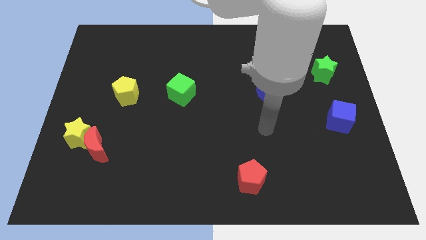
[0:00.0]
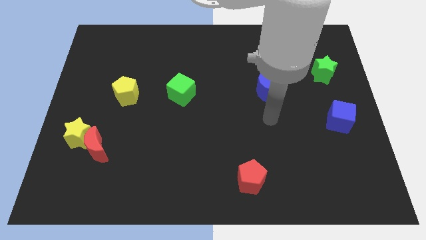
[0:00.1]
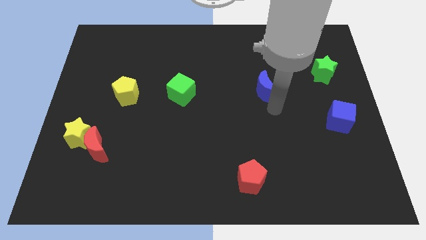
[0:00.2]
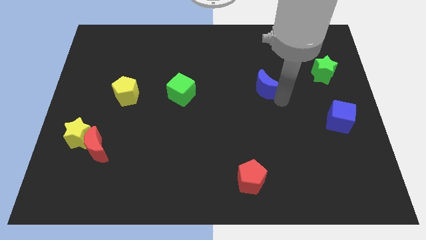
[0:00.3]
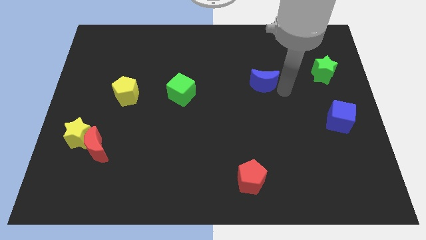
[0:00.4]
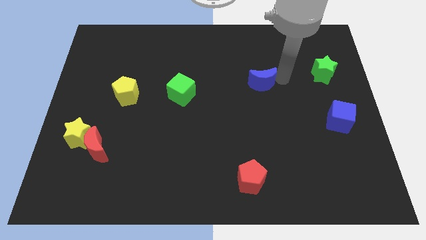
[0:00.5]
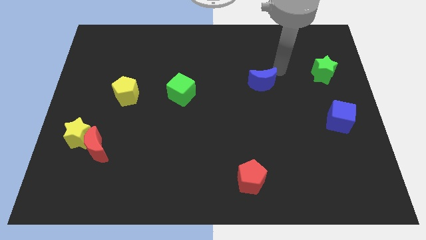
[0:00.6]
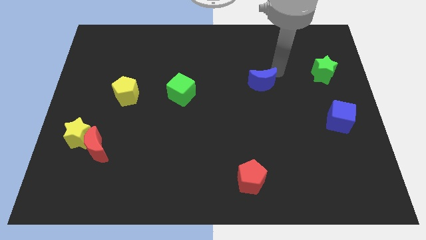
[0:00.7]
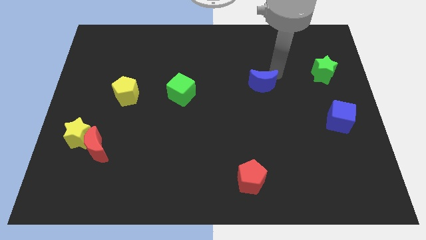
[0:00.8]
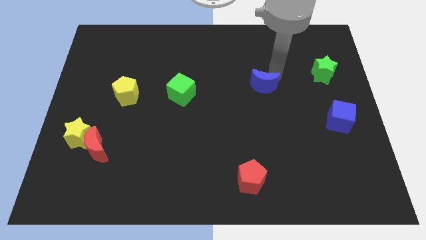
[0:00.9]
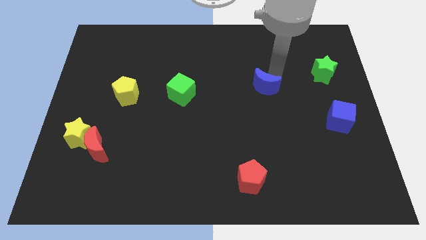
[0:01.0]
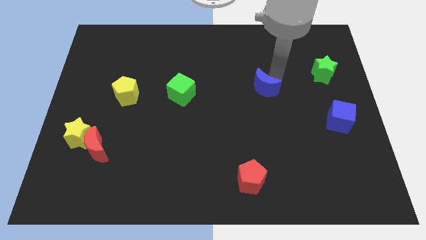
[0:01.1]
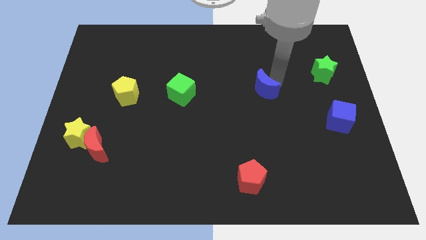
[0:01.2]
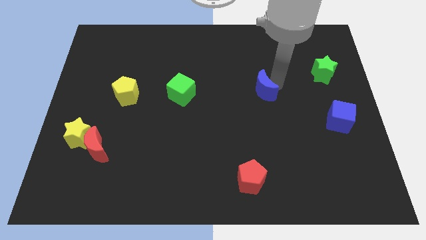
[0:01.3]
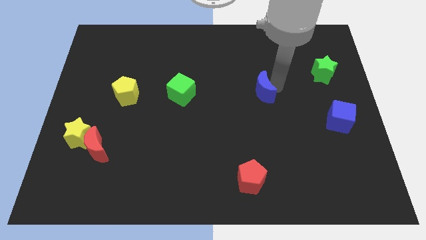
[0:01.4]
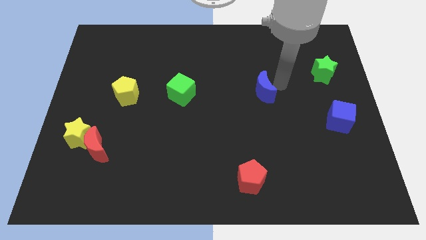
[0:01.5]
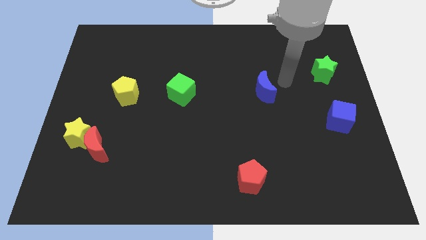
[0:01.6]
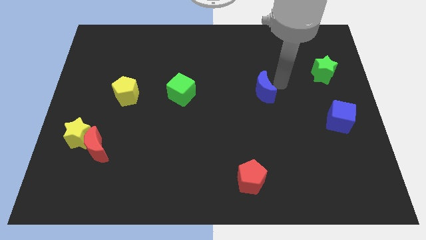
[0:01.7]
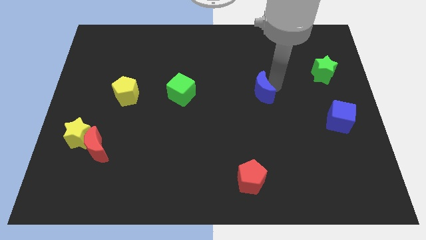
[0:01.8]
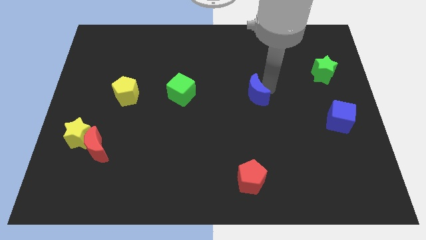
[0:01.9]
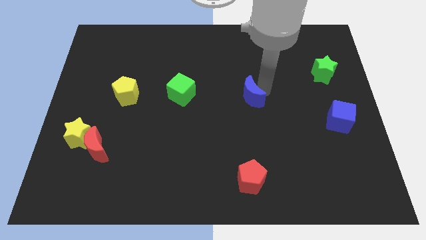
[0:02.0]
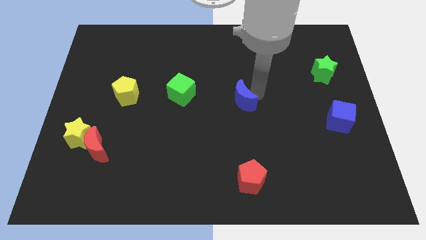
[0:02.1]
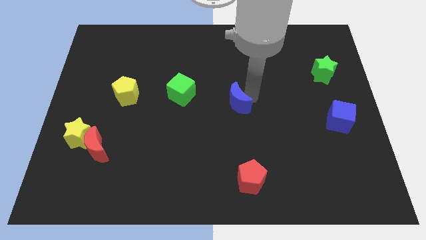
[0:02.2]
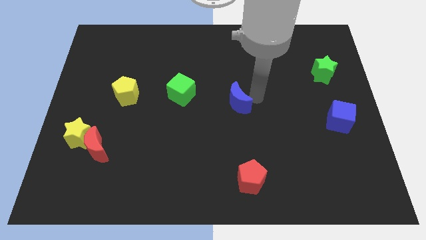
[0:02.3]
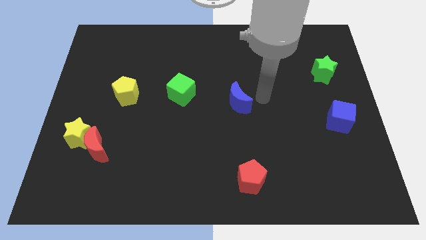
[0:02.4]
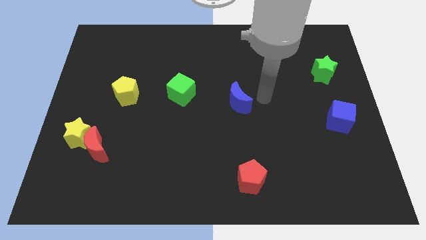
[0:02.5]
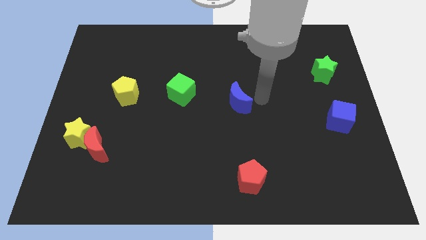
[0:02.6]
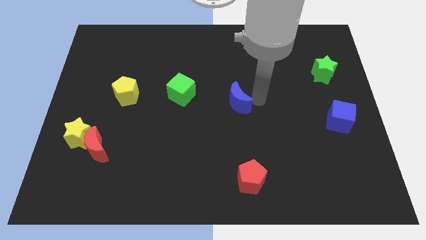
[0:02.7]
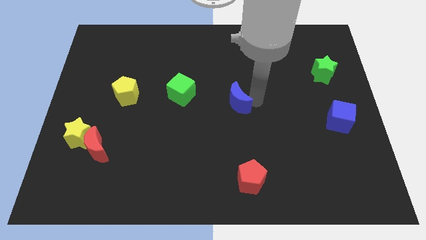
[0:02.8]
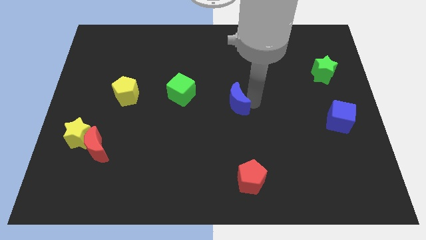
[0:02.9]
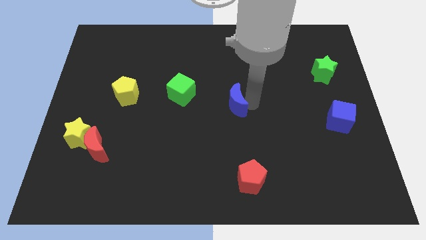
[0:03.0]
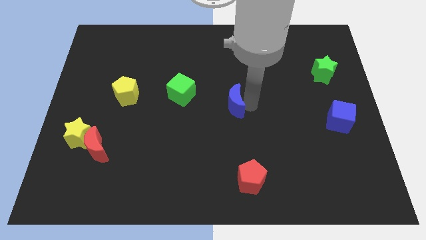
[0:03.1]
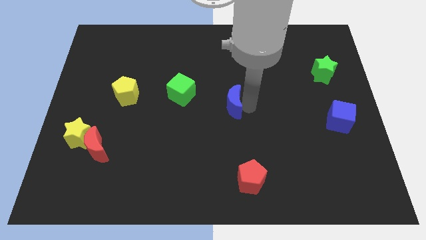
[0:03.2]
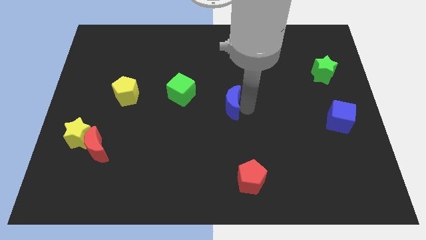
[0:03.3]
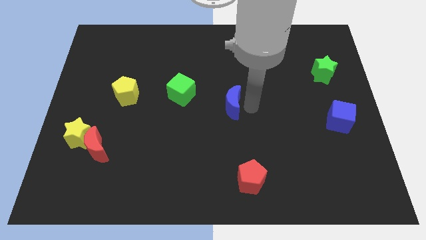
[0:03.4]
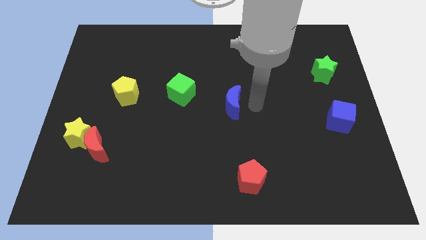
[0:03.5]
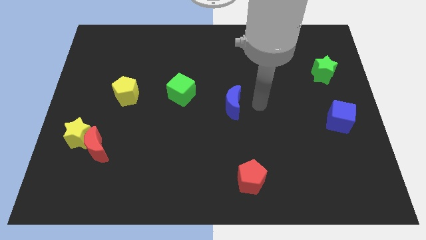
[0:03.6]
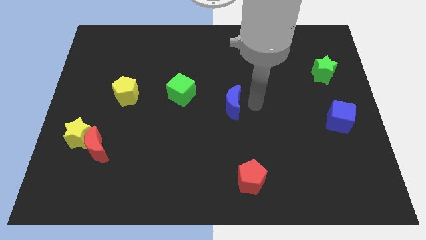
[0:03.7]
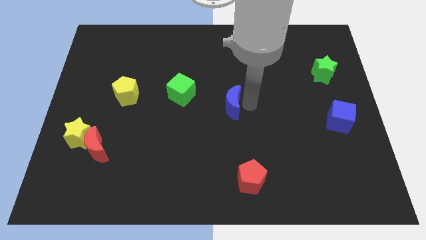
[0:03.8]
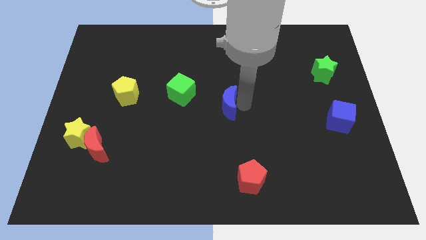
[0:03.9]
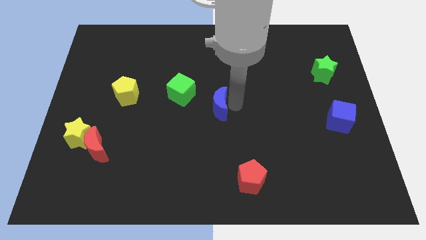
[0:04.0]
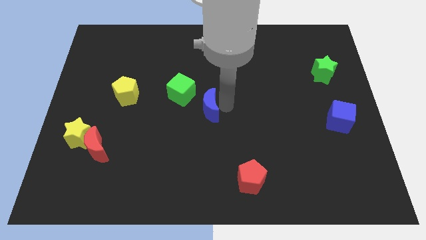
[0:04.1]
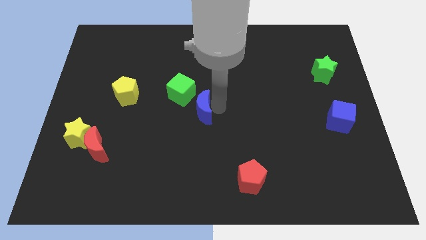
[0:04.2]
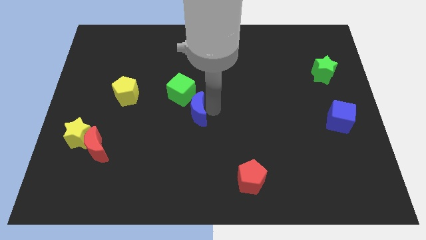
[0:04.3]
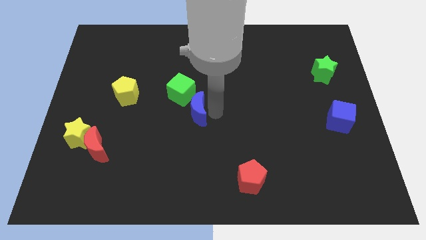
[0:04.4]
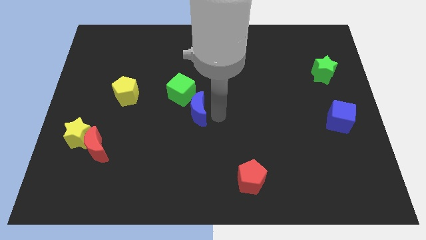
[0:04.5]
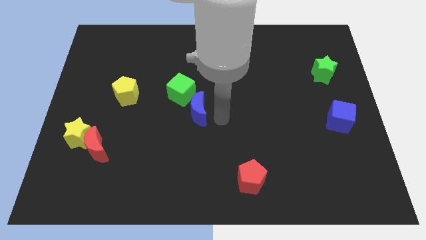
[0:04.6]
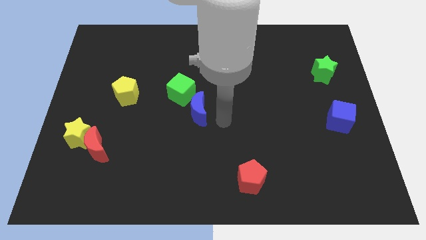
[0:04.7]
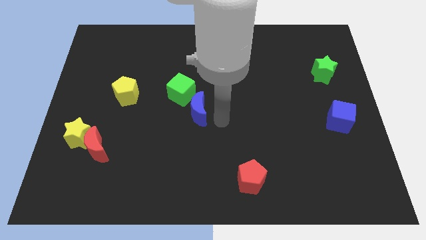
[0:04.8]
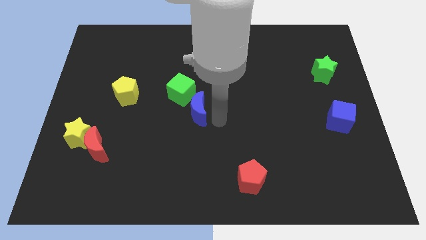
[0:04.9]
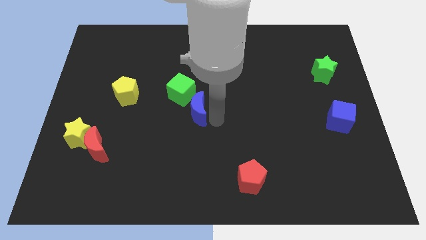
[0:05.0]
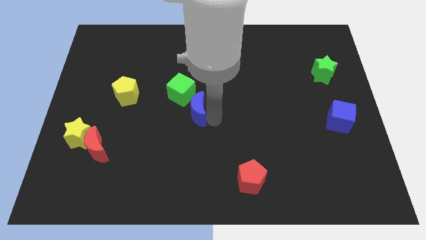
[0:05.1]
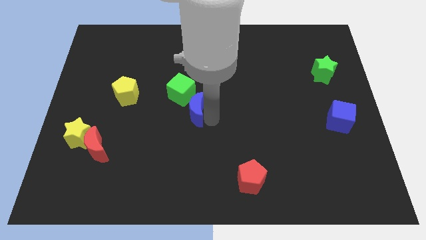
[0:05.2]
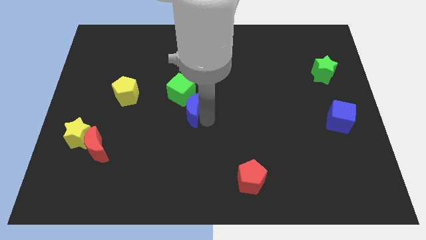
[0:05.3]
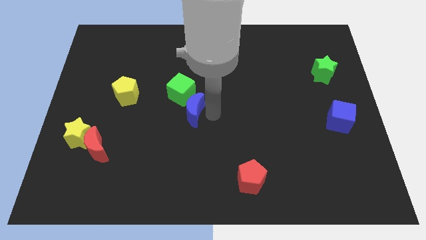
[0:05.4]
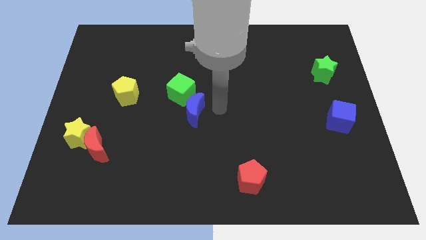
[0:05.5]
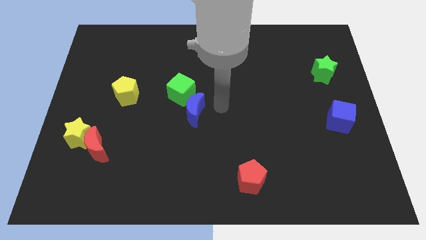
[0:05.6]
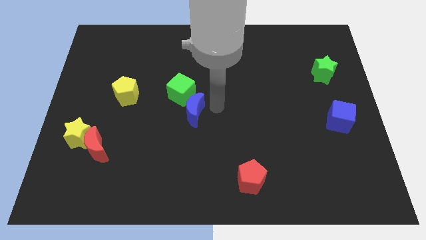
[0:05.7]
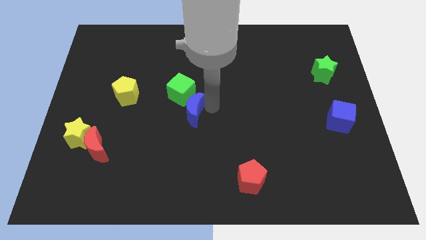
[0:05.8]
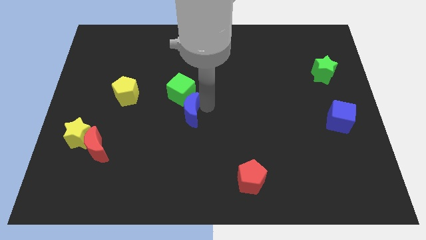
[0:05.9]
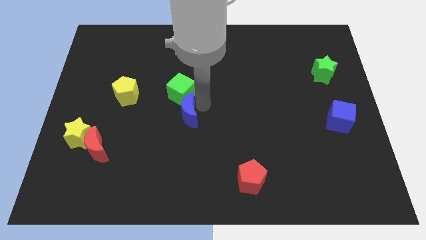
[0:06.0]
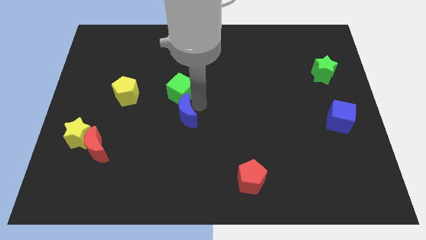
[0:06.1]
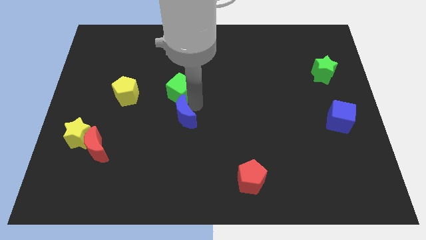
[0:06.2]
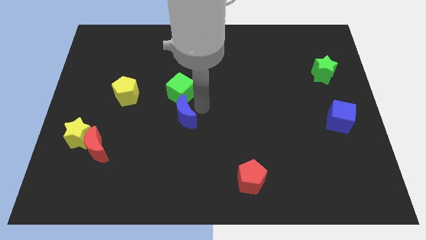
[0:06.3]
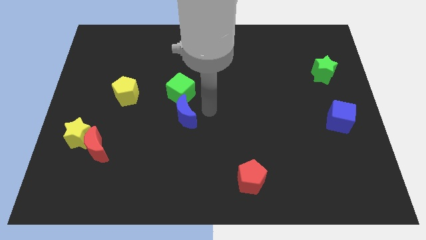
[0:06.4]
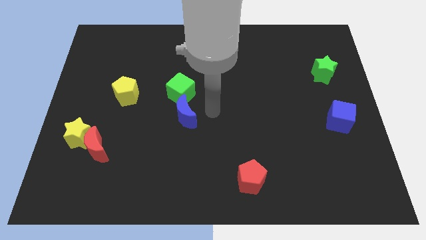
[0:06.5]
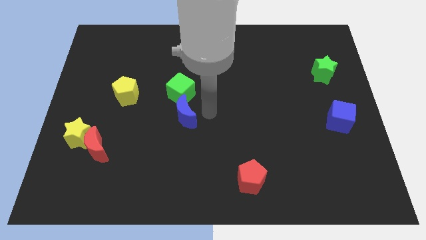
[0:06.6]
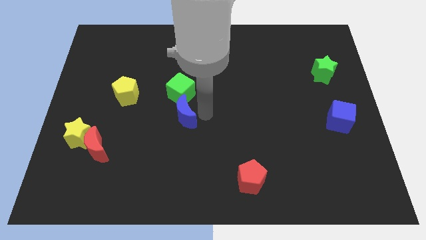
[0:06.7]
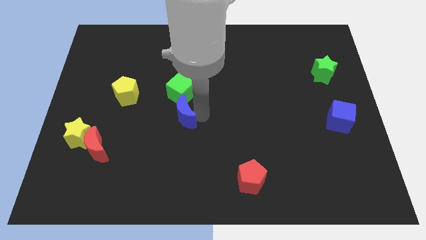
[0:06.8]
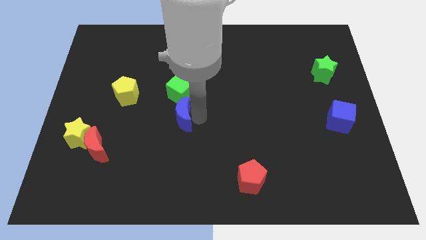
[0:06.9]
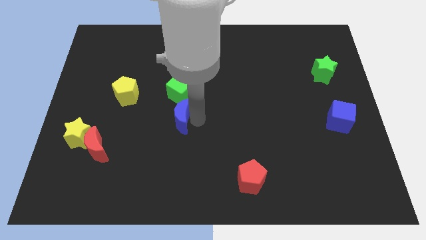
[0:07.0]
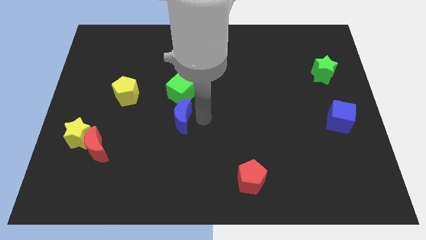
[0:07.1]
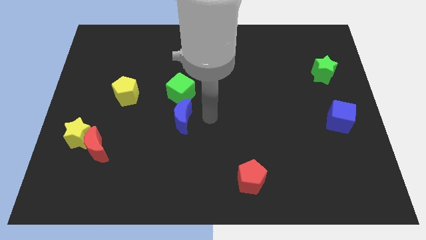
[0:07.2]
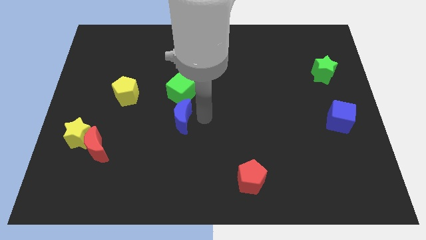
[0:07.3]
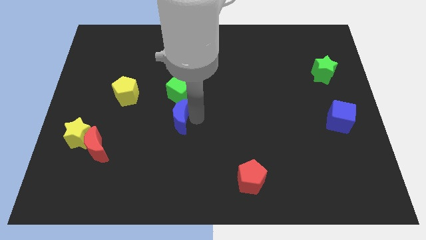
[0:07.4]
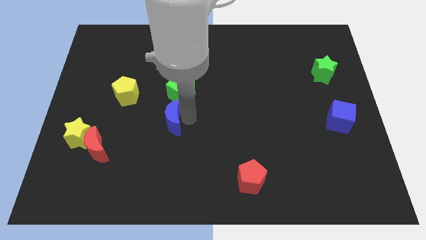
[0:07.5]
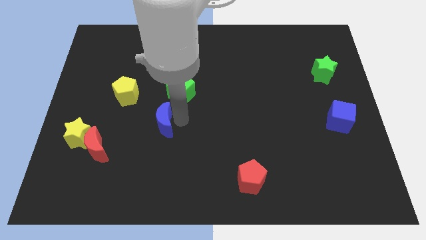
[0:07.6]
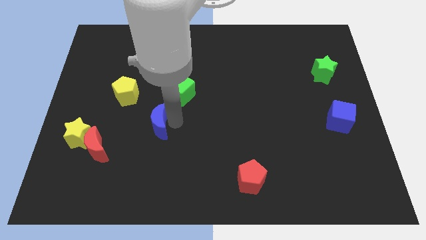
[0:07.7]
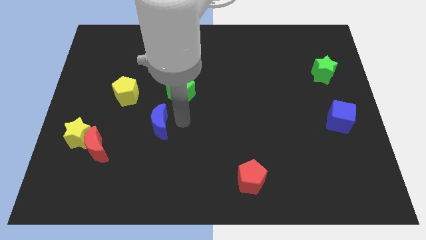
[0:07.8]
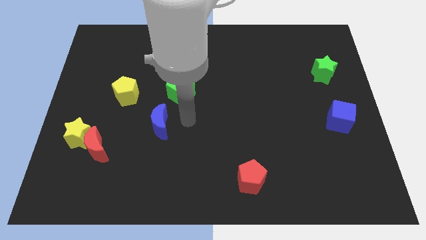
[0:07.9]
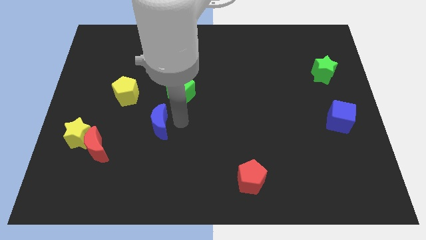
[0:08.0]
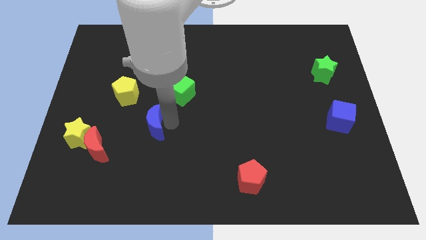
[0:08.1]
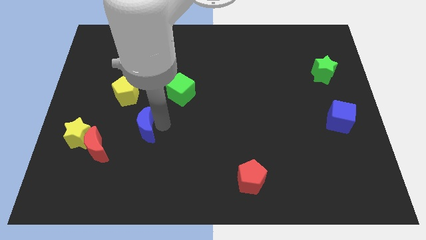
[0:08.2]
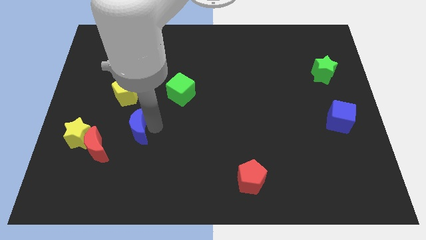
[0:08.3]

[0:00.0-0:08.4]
put the blue moon to the bottom of the yellow pentagon
